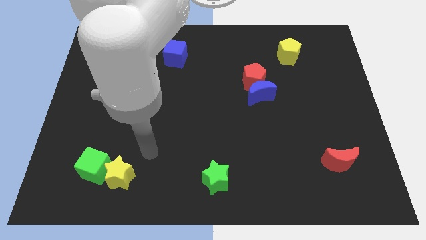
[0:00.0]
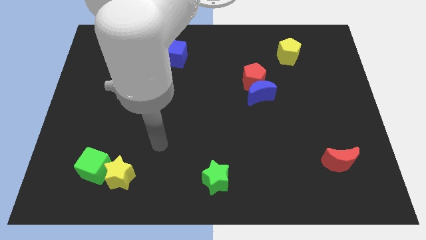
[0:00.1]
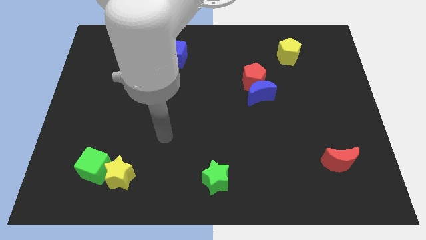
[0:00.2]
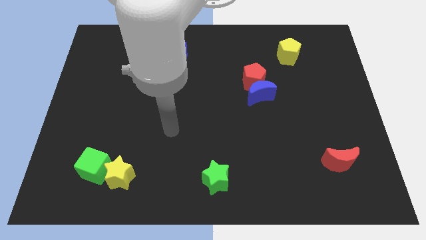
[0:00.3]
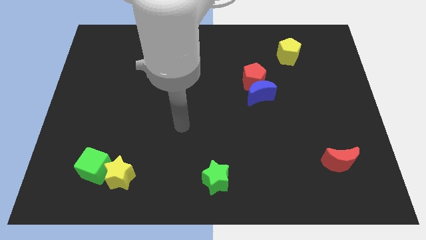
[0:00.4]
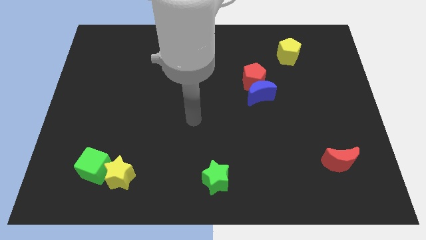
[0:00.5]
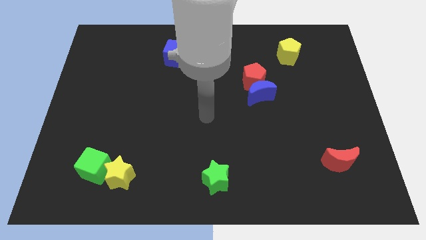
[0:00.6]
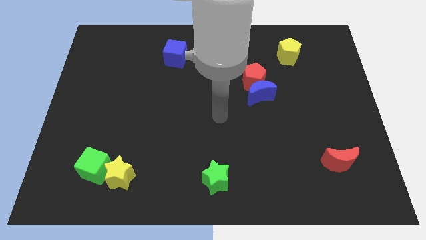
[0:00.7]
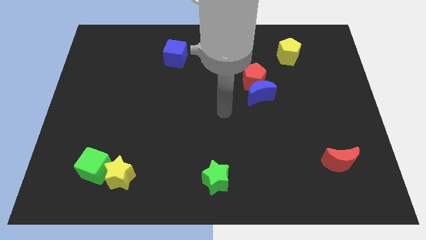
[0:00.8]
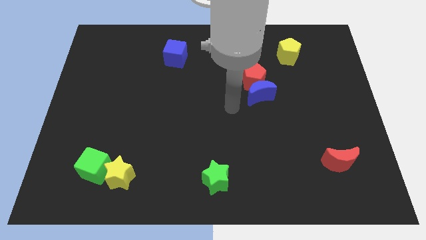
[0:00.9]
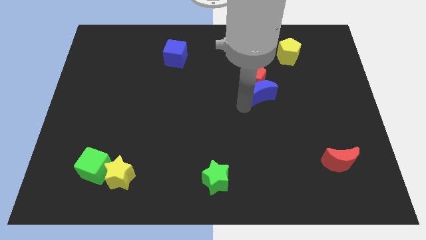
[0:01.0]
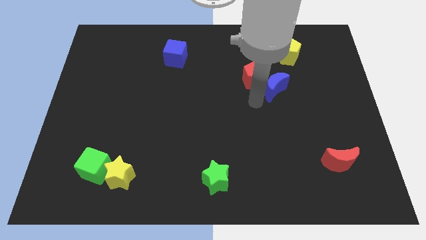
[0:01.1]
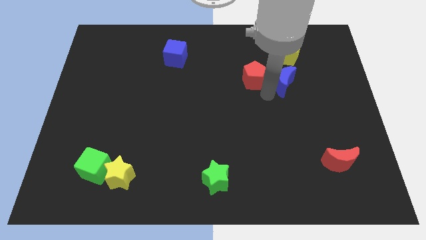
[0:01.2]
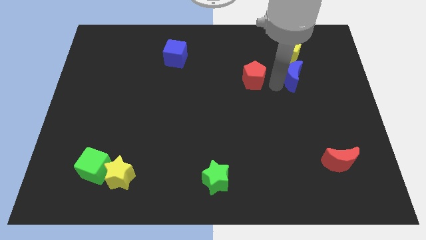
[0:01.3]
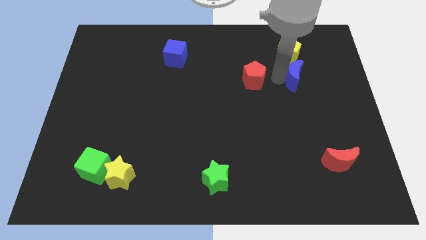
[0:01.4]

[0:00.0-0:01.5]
move the red pentagon away from the blue moon

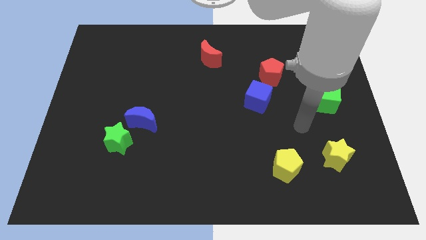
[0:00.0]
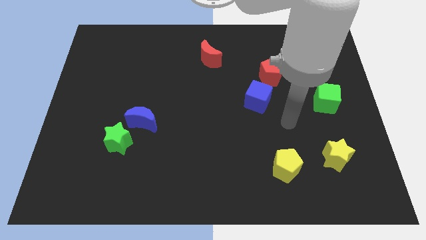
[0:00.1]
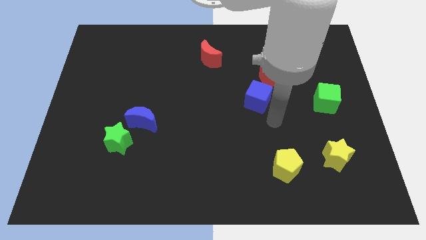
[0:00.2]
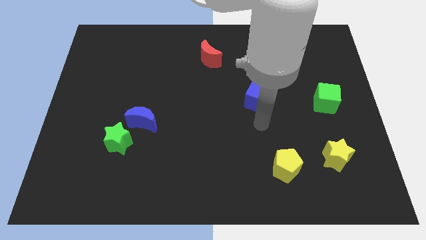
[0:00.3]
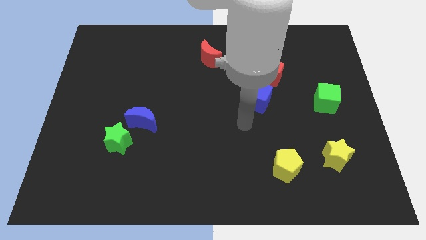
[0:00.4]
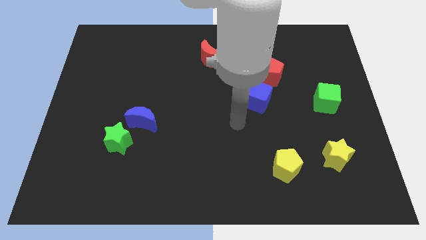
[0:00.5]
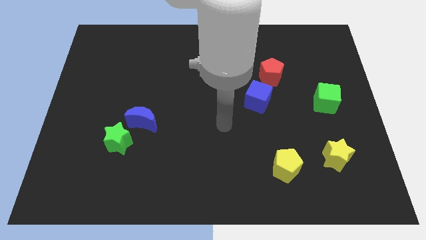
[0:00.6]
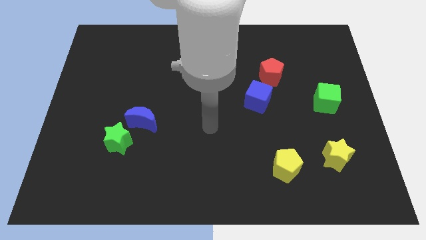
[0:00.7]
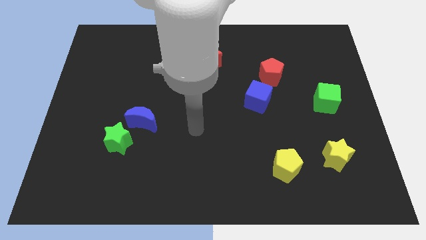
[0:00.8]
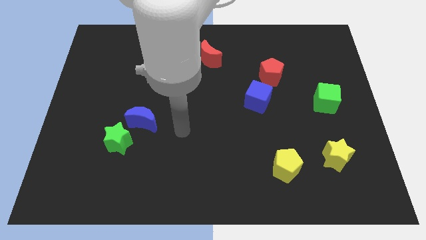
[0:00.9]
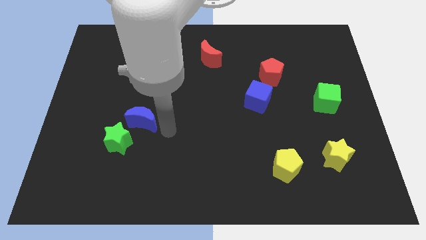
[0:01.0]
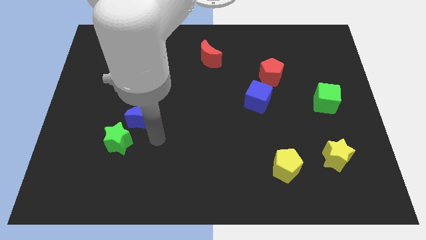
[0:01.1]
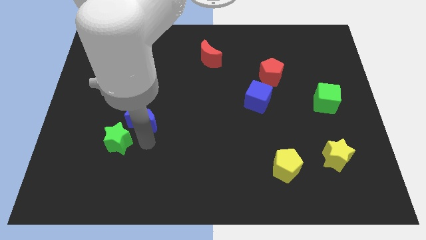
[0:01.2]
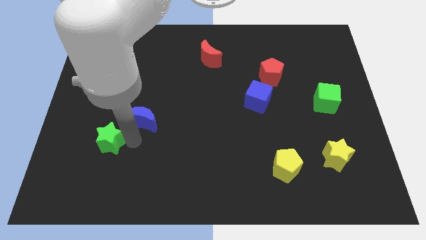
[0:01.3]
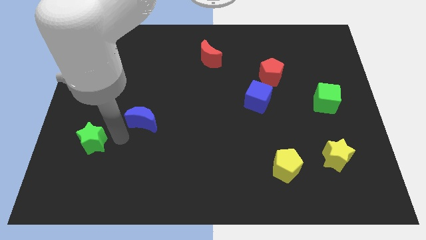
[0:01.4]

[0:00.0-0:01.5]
separate the blue moon from the green star

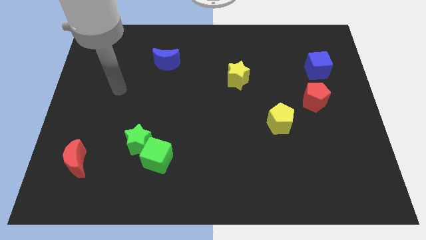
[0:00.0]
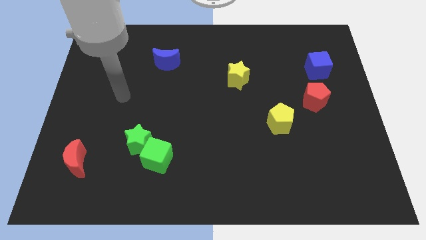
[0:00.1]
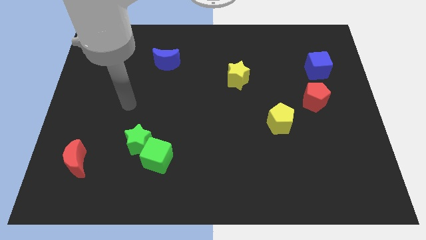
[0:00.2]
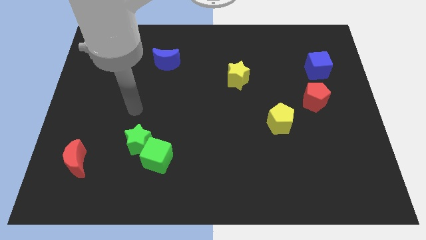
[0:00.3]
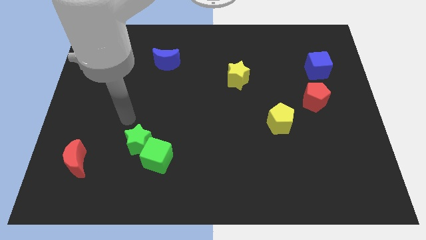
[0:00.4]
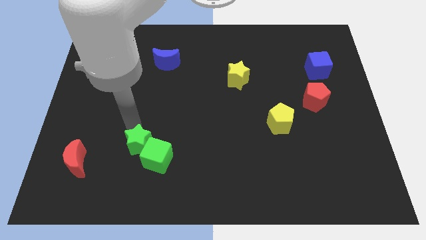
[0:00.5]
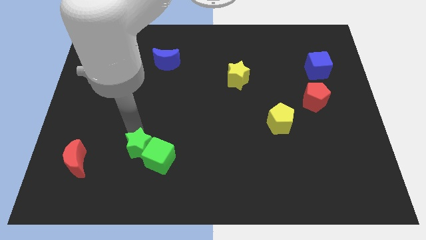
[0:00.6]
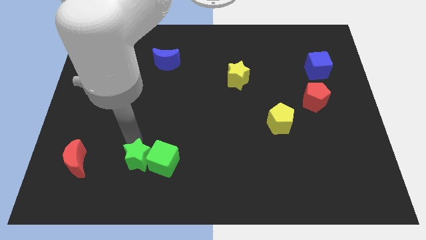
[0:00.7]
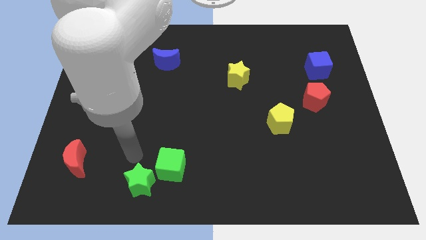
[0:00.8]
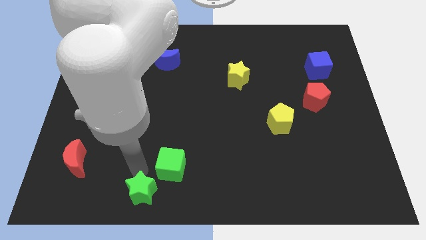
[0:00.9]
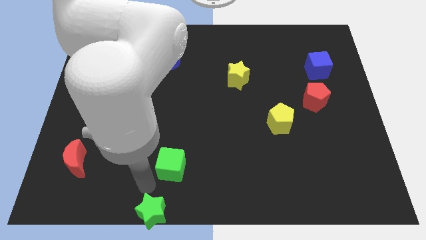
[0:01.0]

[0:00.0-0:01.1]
move the green cube away from the green star

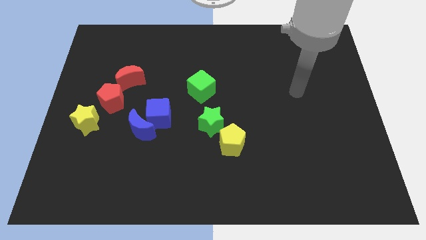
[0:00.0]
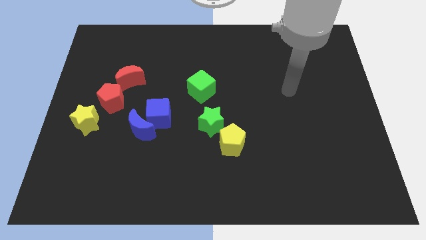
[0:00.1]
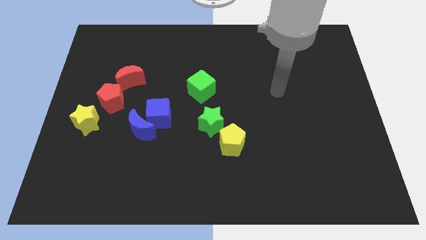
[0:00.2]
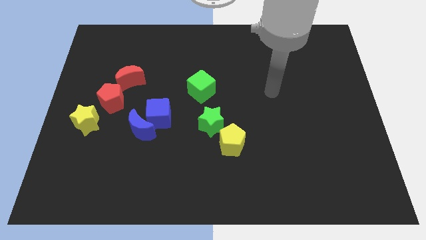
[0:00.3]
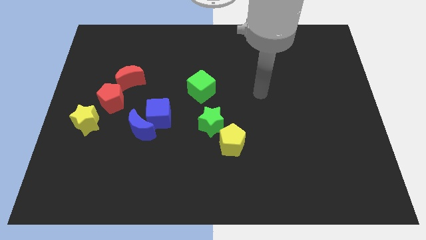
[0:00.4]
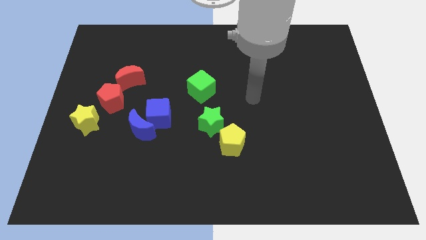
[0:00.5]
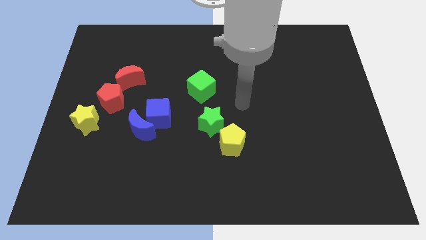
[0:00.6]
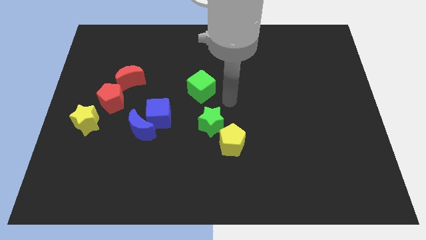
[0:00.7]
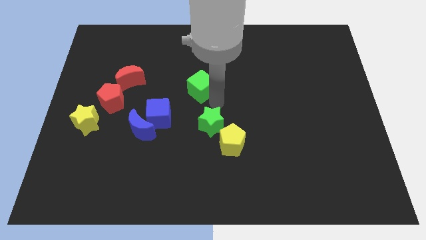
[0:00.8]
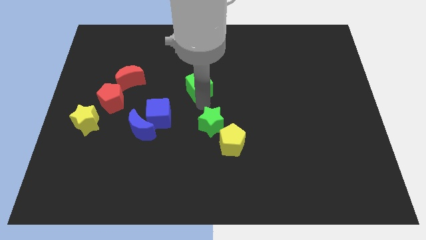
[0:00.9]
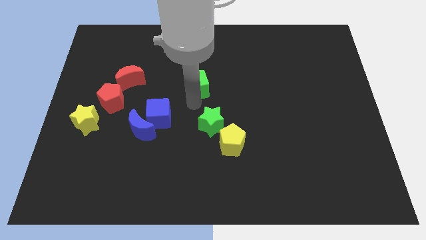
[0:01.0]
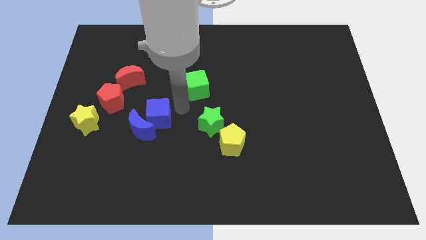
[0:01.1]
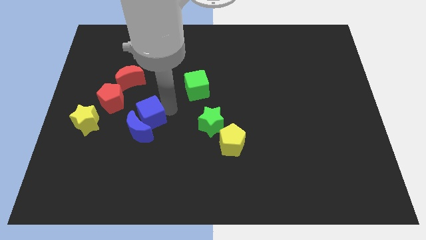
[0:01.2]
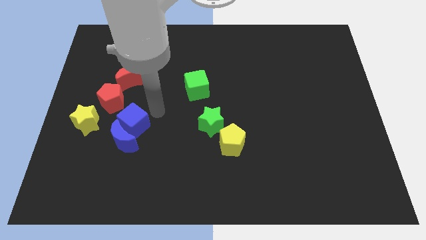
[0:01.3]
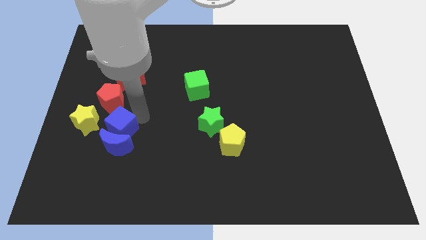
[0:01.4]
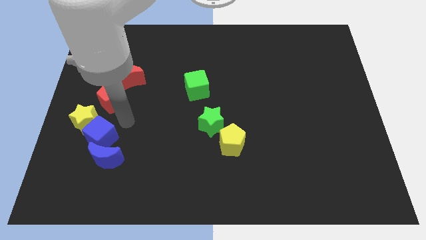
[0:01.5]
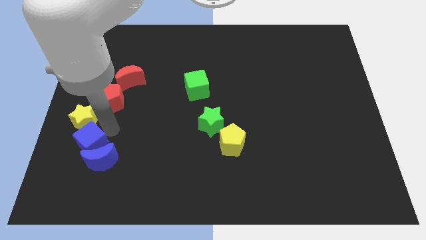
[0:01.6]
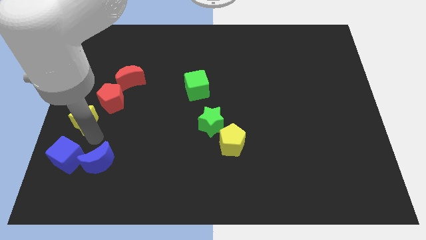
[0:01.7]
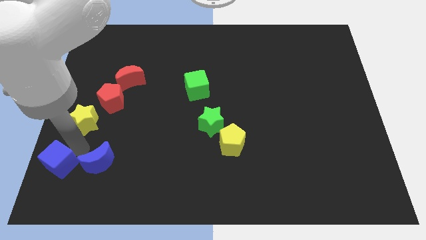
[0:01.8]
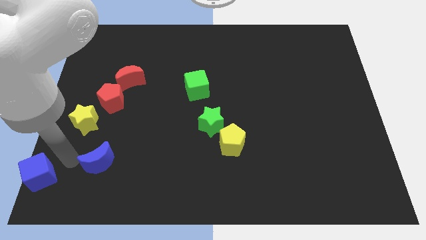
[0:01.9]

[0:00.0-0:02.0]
separate the blue moon from the blue cube

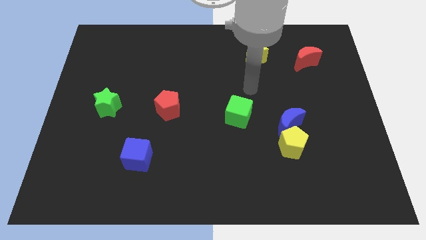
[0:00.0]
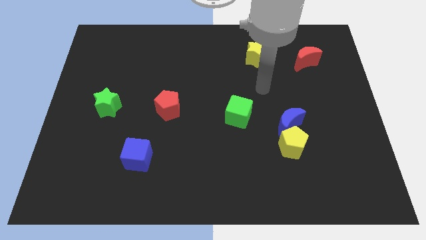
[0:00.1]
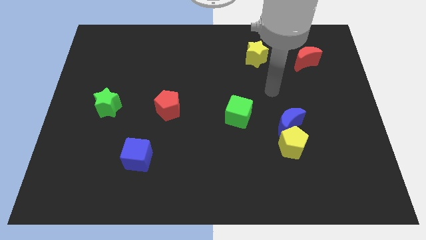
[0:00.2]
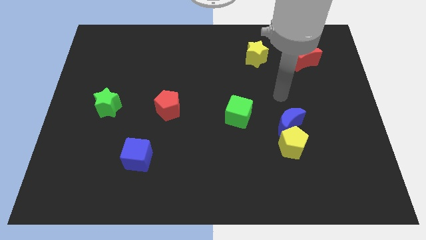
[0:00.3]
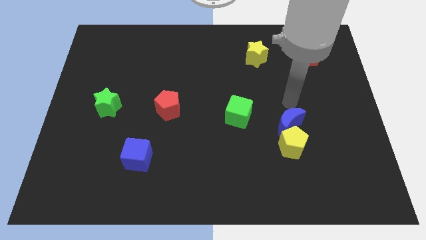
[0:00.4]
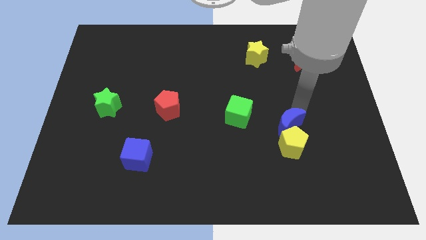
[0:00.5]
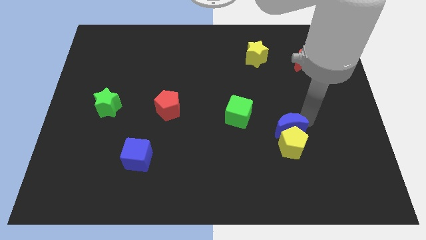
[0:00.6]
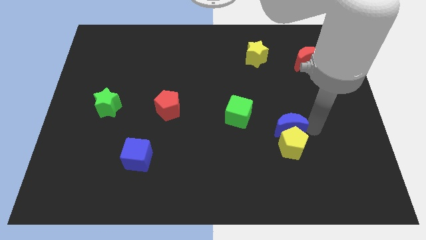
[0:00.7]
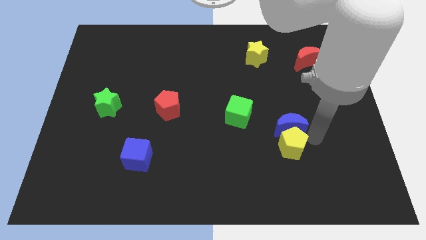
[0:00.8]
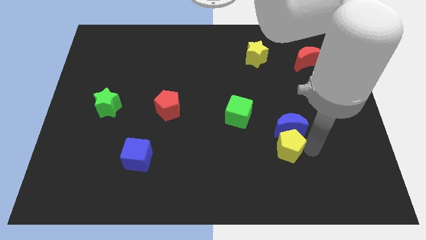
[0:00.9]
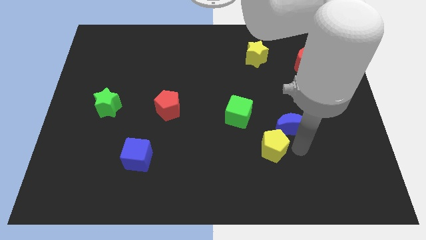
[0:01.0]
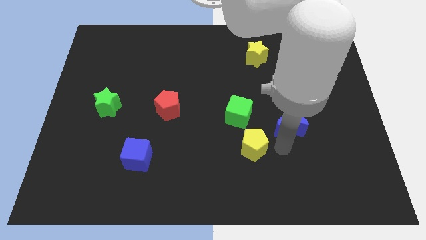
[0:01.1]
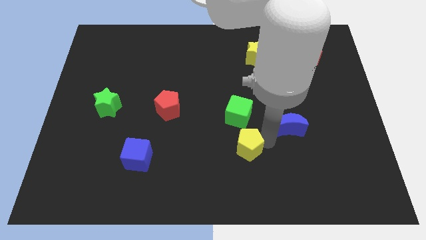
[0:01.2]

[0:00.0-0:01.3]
separate the blue moon from the yellow pentagon

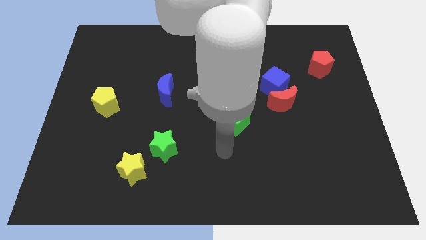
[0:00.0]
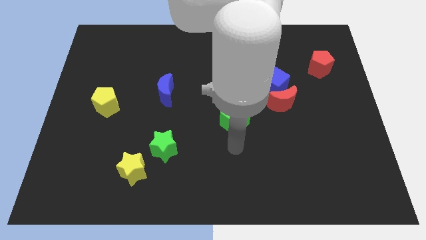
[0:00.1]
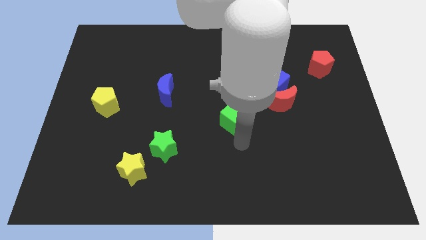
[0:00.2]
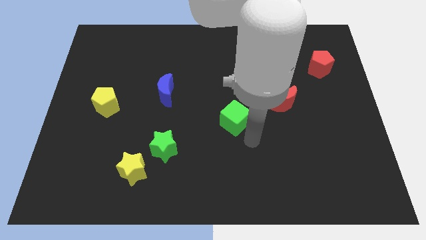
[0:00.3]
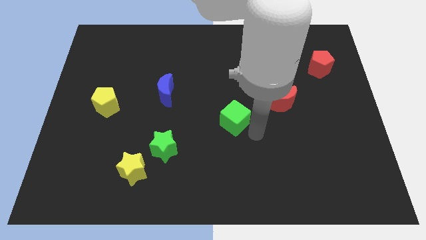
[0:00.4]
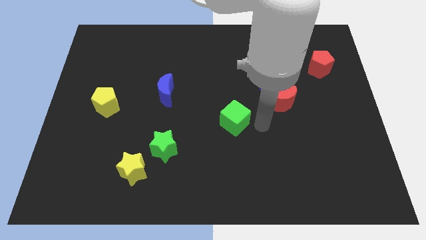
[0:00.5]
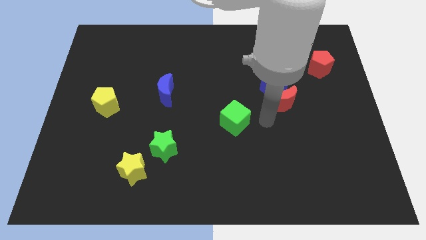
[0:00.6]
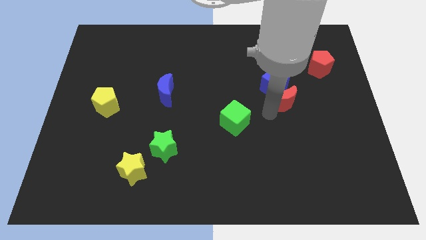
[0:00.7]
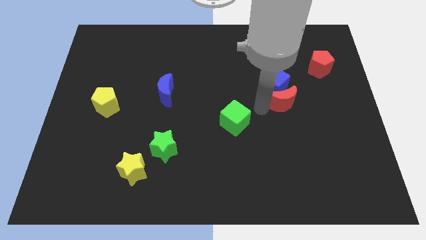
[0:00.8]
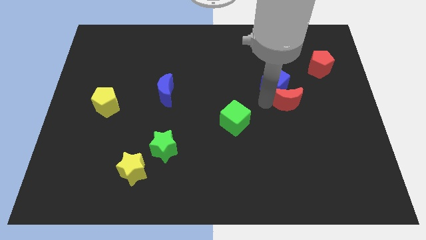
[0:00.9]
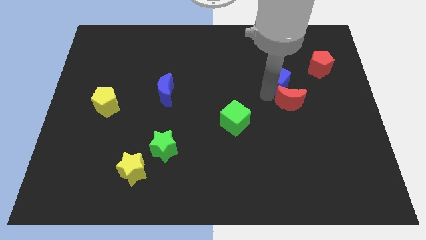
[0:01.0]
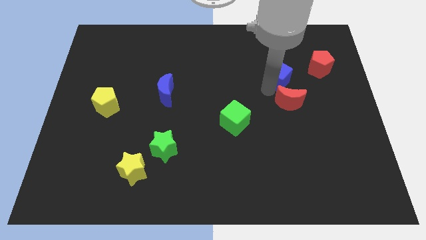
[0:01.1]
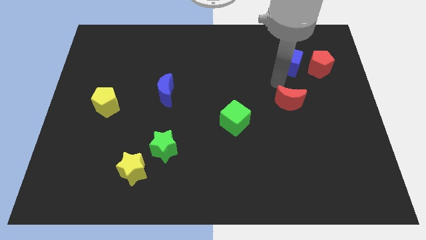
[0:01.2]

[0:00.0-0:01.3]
separate the red moon from the blue cube

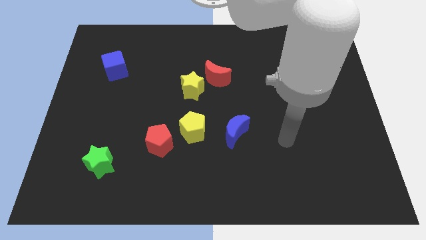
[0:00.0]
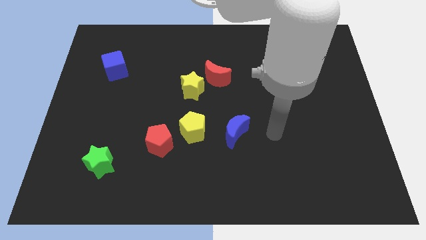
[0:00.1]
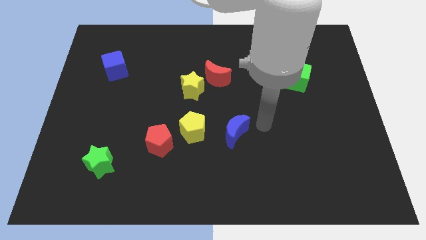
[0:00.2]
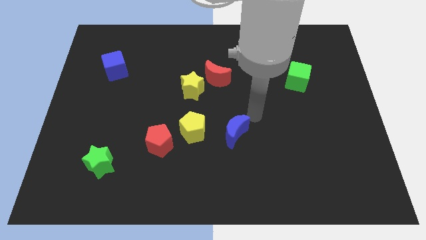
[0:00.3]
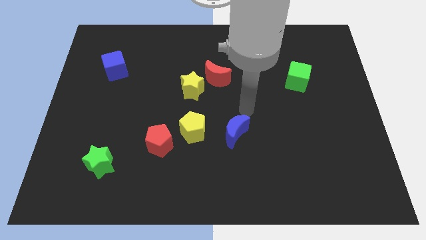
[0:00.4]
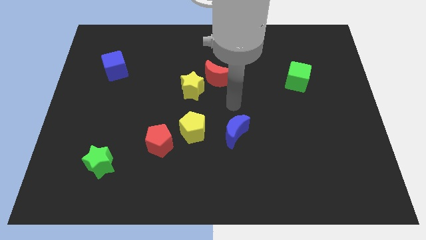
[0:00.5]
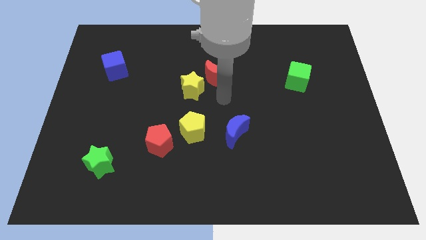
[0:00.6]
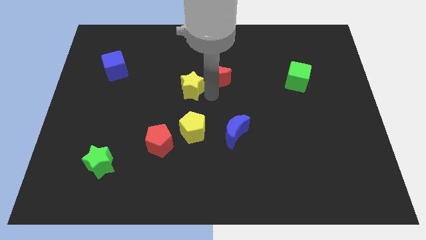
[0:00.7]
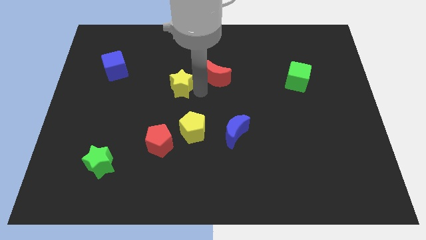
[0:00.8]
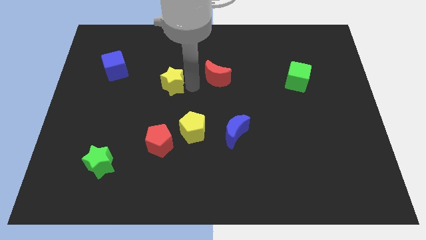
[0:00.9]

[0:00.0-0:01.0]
move the red moon away from the yellow star
